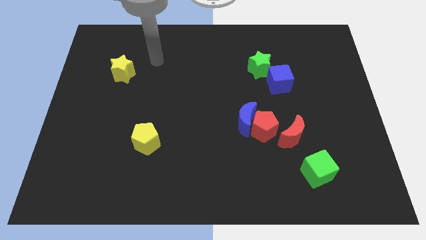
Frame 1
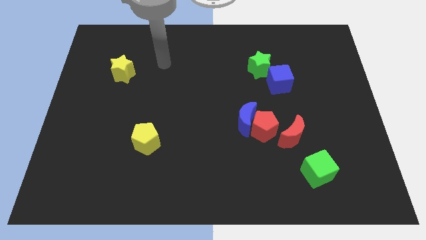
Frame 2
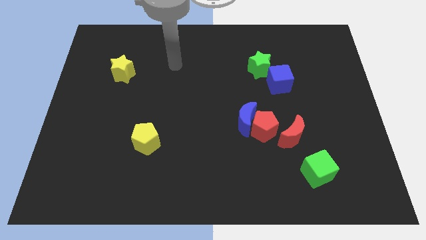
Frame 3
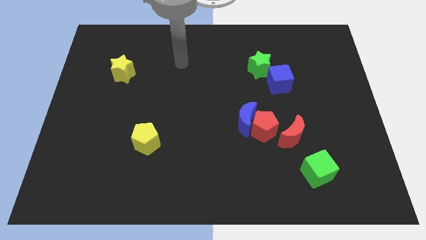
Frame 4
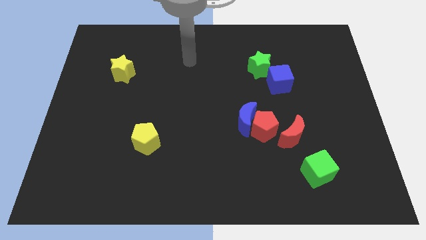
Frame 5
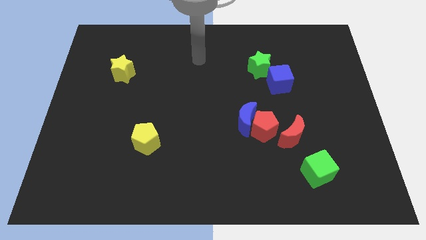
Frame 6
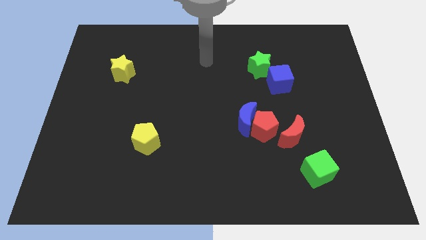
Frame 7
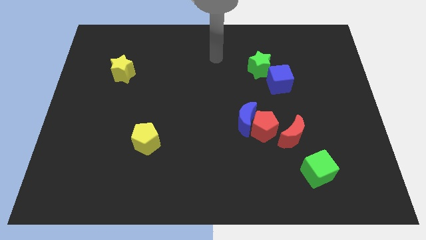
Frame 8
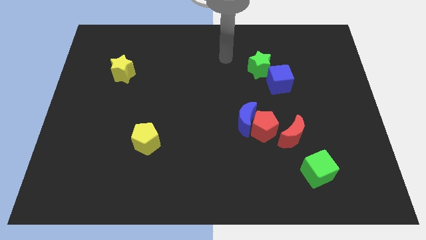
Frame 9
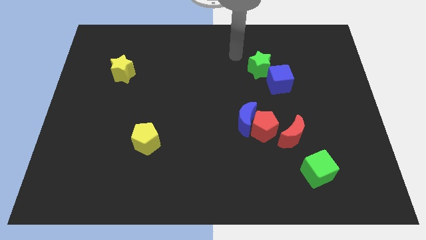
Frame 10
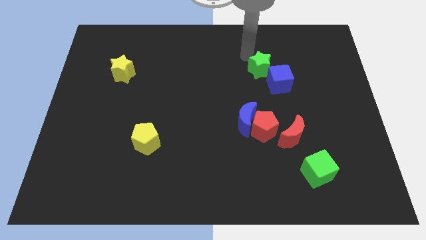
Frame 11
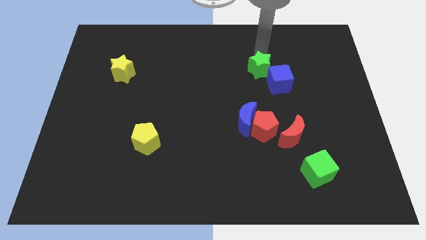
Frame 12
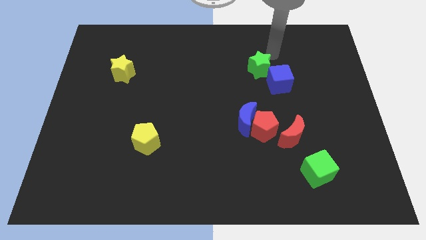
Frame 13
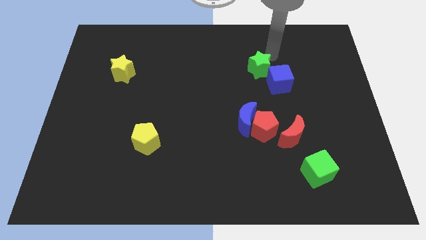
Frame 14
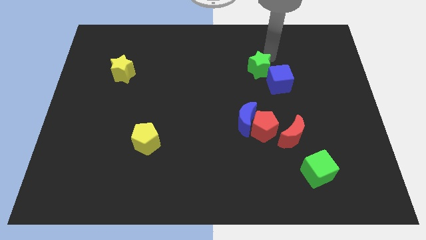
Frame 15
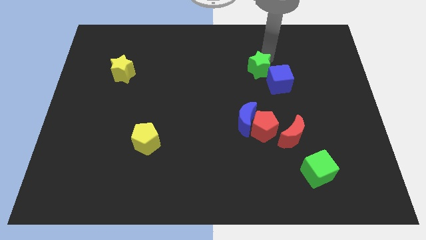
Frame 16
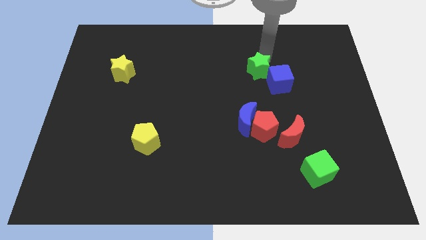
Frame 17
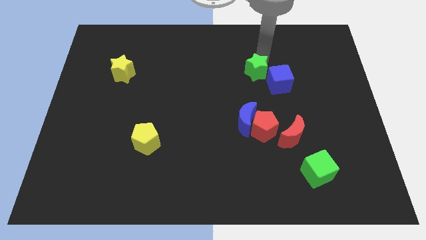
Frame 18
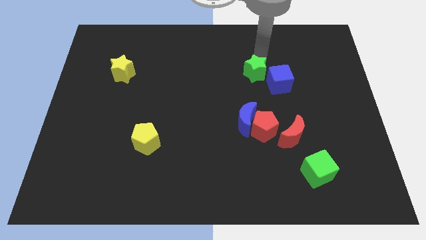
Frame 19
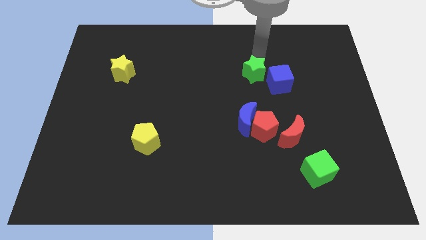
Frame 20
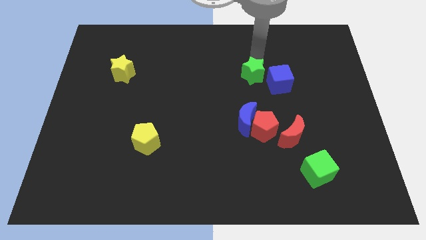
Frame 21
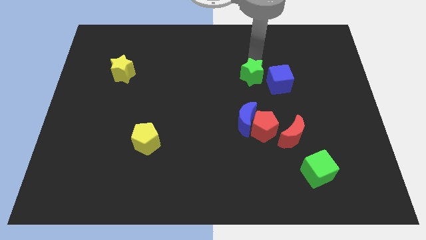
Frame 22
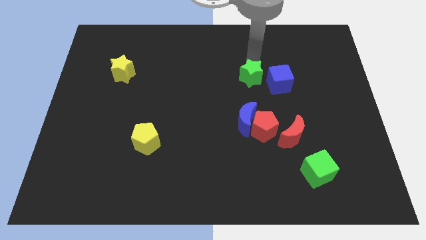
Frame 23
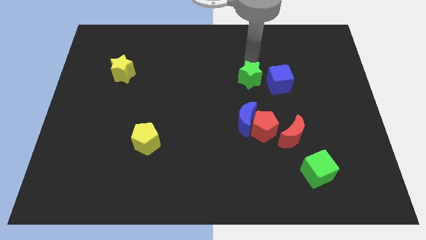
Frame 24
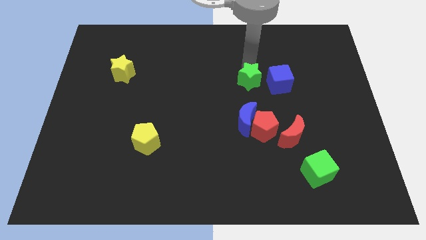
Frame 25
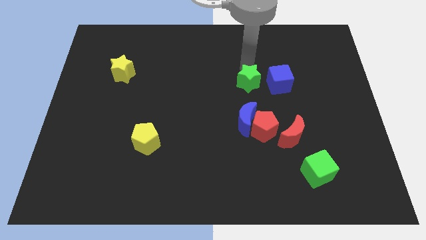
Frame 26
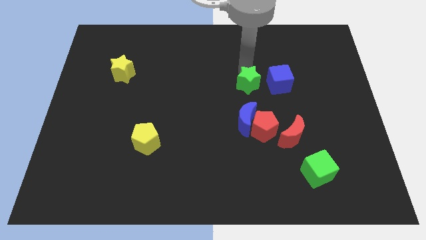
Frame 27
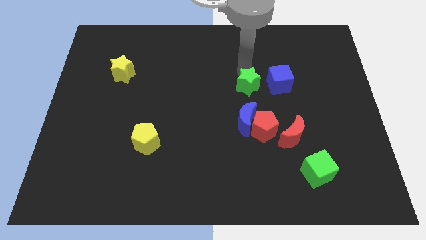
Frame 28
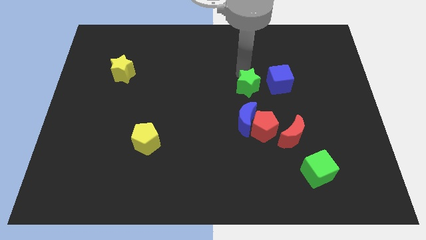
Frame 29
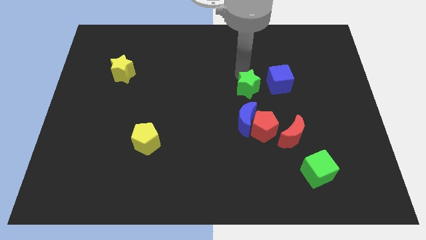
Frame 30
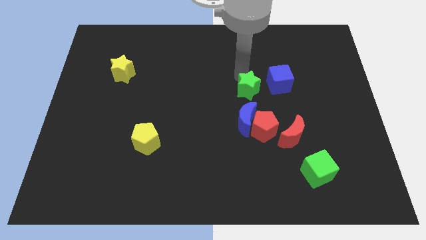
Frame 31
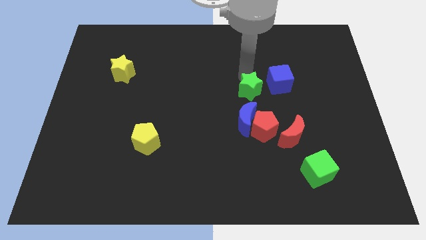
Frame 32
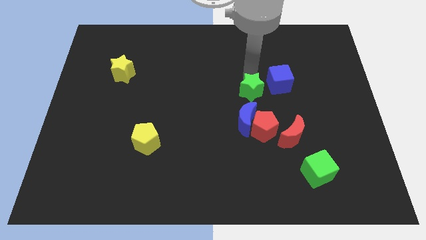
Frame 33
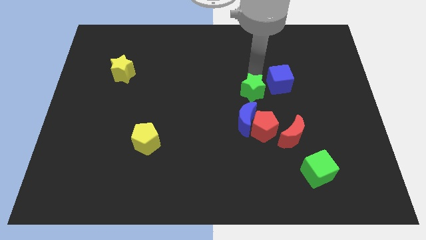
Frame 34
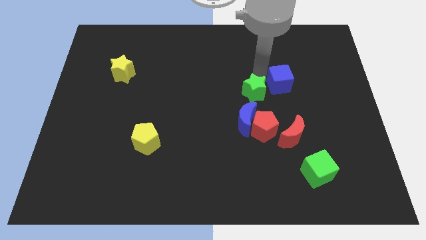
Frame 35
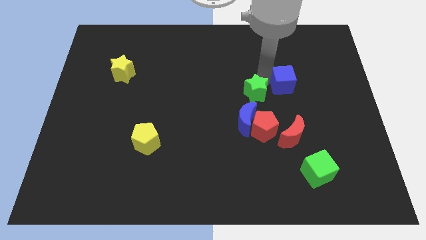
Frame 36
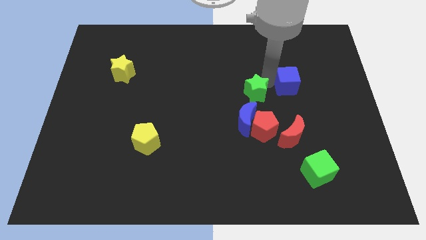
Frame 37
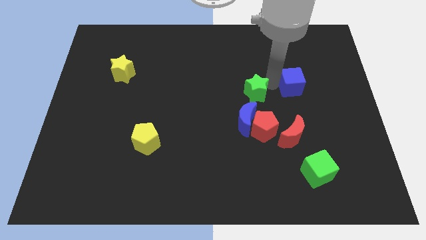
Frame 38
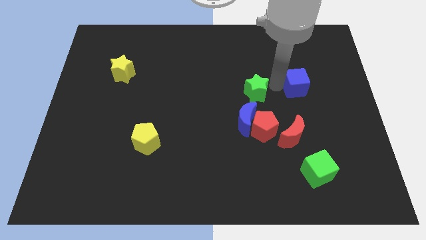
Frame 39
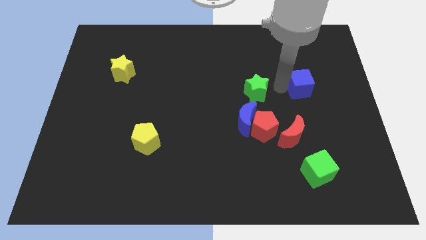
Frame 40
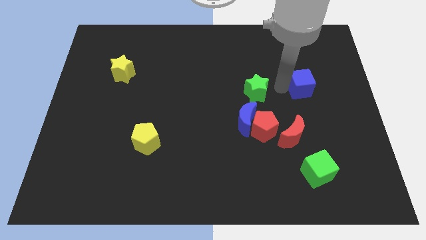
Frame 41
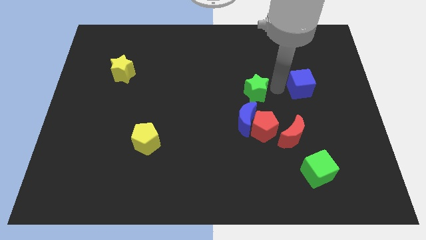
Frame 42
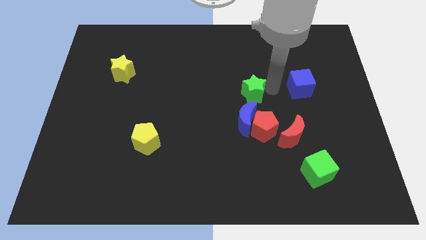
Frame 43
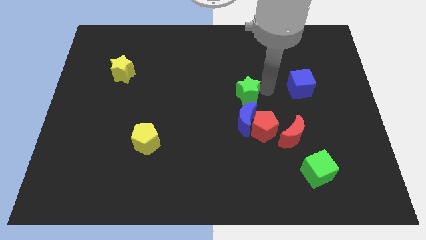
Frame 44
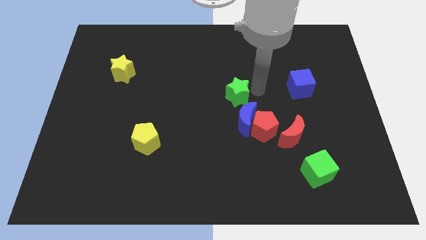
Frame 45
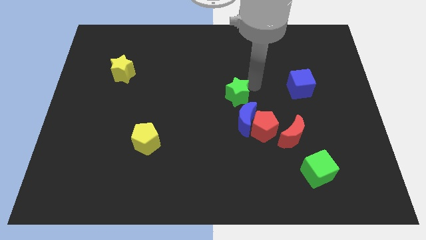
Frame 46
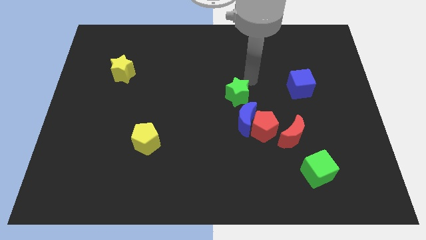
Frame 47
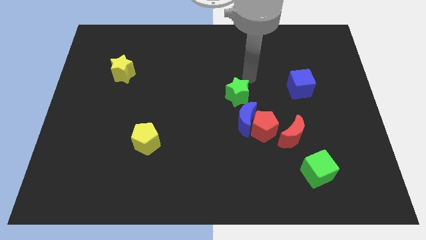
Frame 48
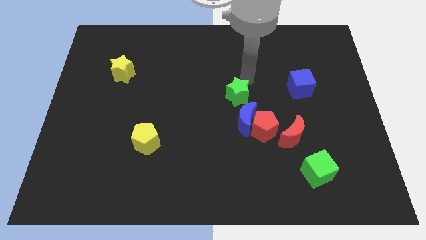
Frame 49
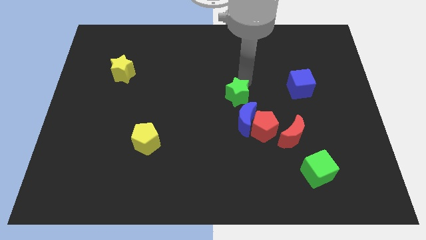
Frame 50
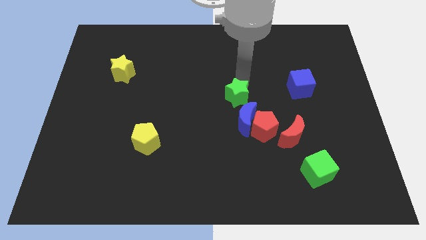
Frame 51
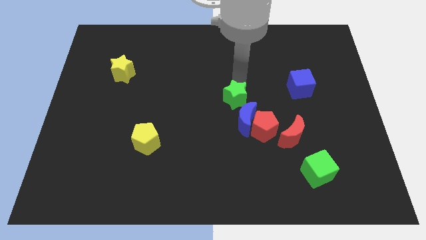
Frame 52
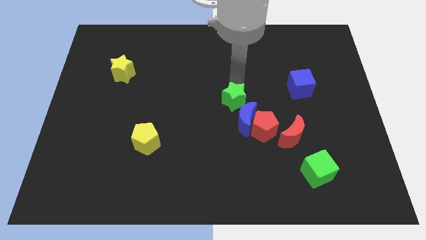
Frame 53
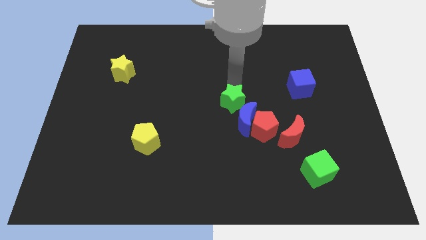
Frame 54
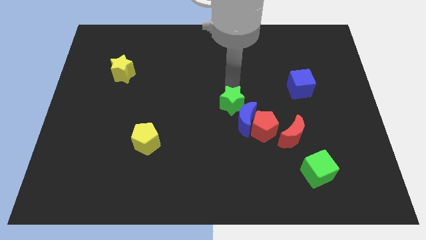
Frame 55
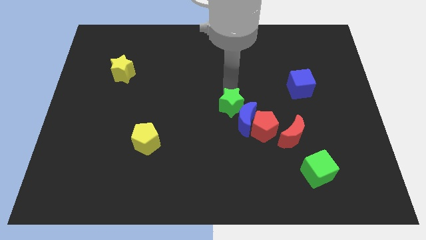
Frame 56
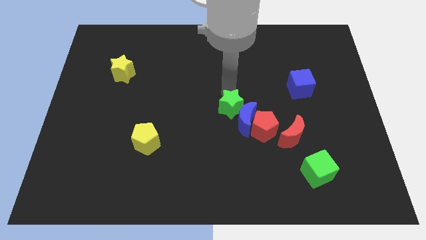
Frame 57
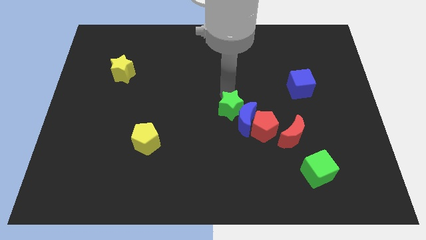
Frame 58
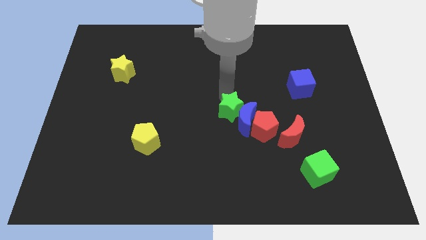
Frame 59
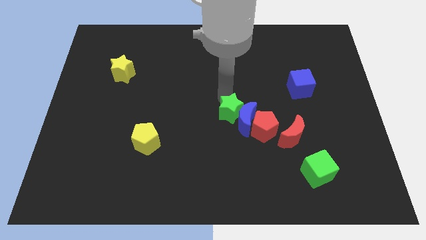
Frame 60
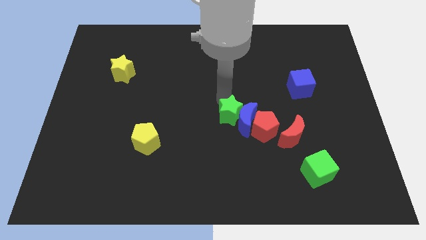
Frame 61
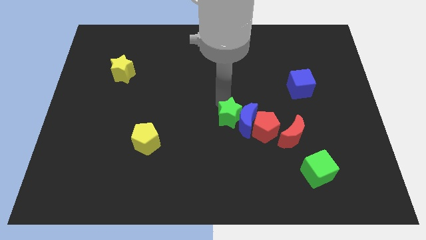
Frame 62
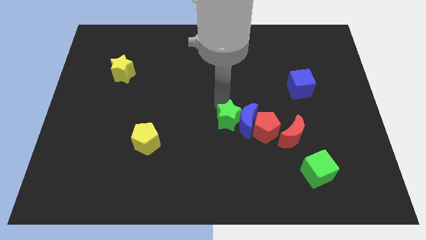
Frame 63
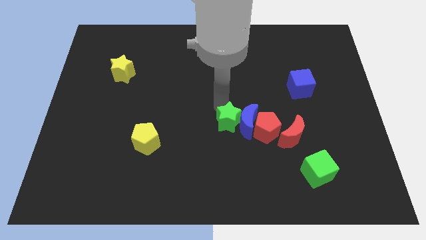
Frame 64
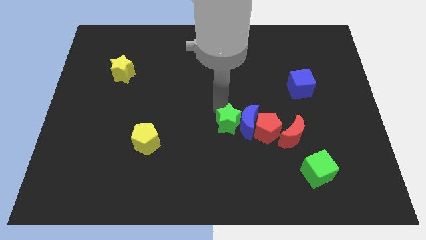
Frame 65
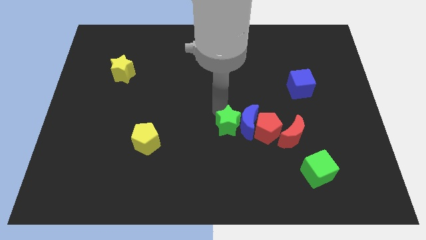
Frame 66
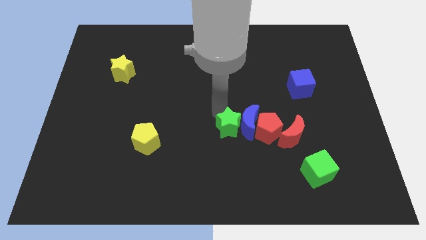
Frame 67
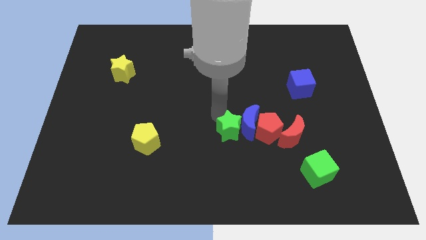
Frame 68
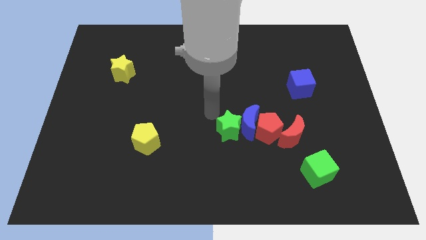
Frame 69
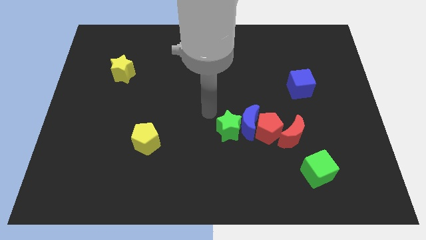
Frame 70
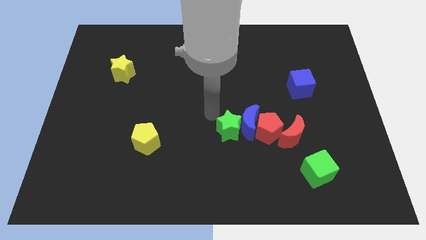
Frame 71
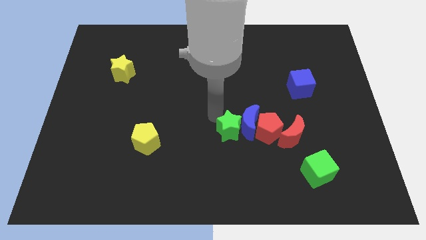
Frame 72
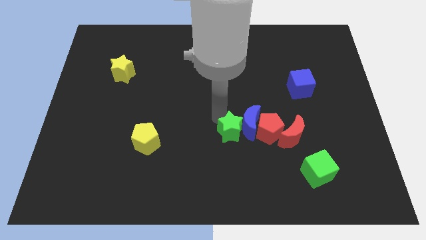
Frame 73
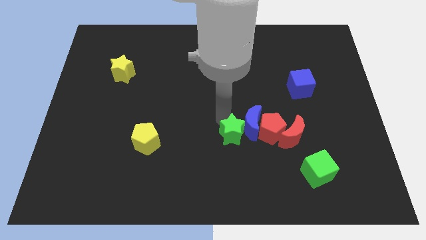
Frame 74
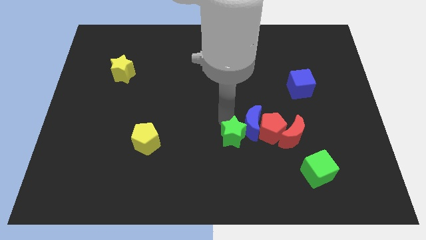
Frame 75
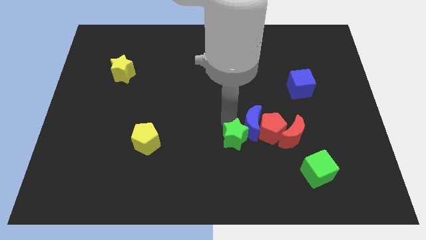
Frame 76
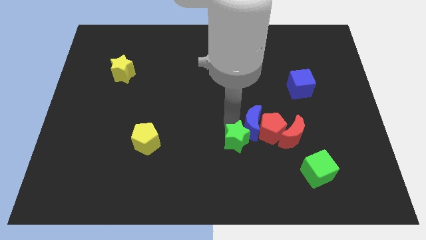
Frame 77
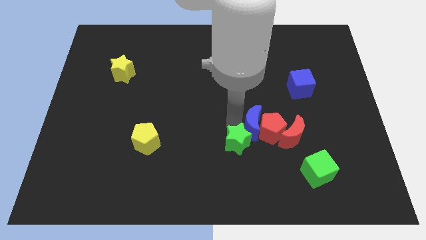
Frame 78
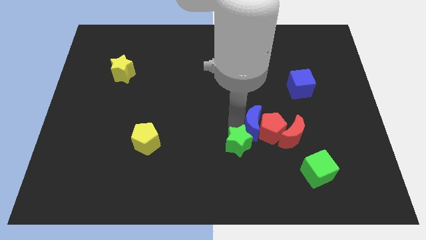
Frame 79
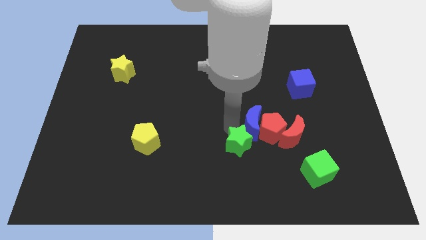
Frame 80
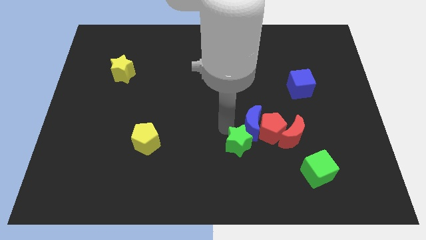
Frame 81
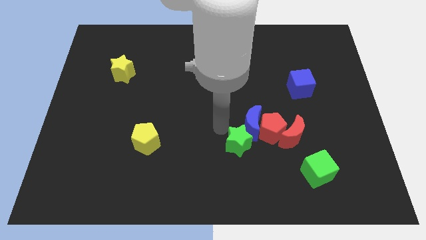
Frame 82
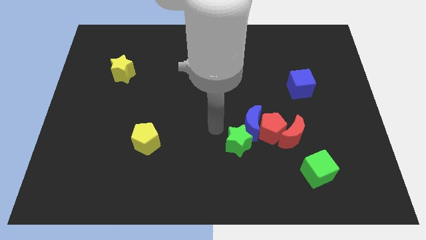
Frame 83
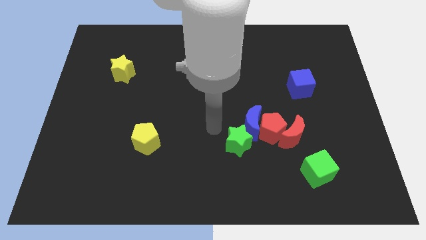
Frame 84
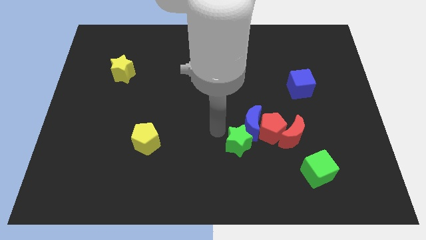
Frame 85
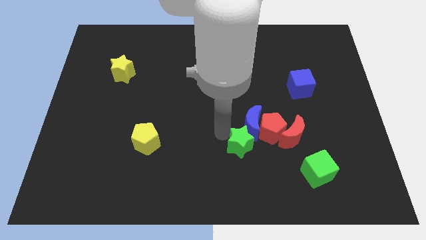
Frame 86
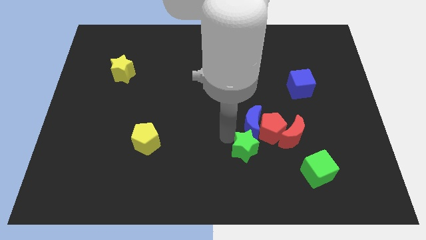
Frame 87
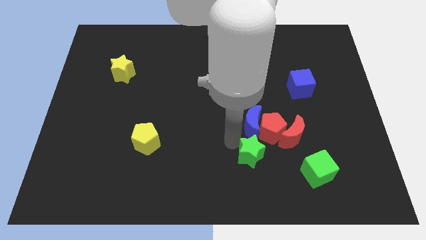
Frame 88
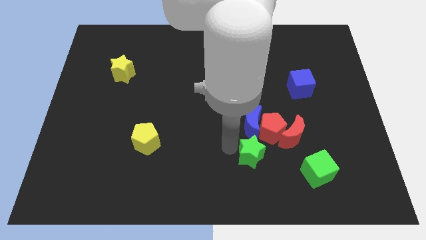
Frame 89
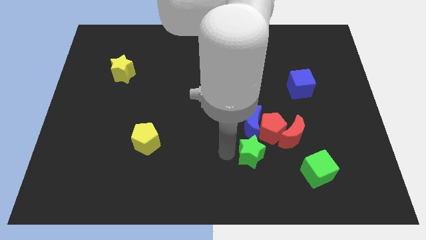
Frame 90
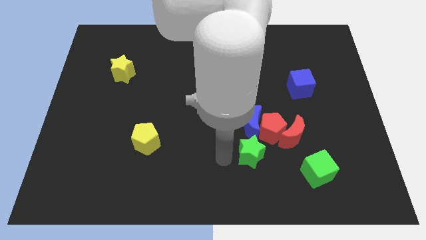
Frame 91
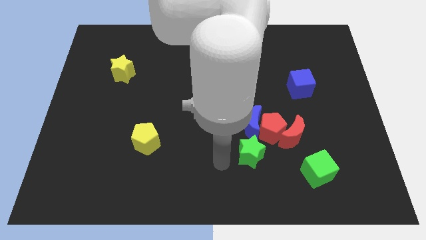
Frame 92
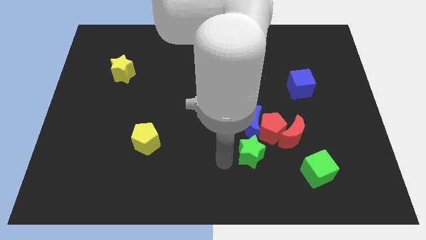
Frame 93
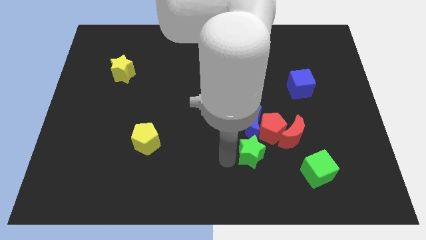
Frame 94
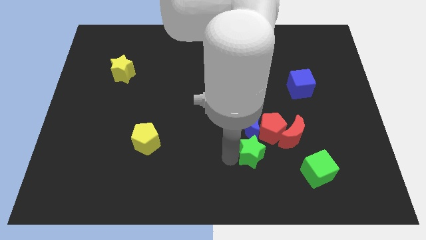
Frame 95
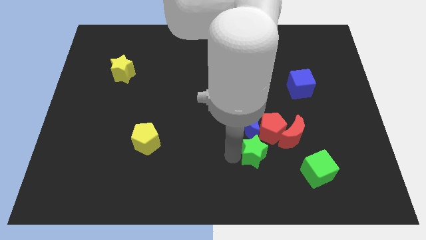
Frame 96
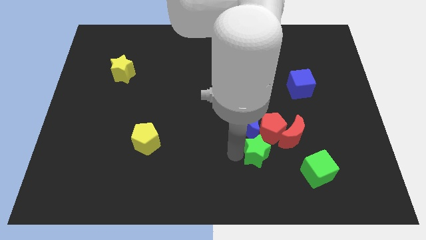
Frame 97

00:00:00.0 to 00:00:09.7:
move the green star diagonally down and to the right of the blue moon
